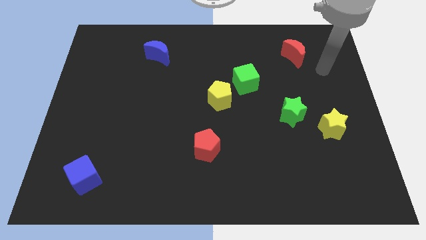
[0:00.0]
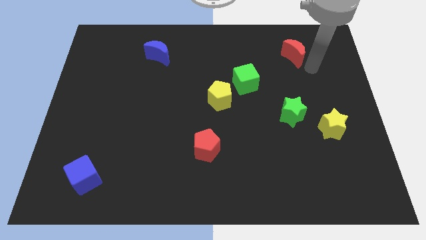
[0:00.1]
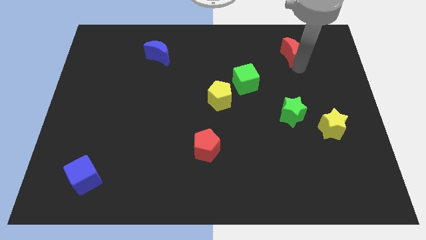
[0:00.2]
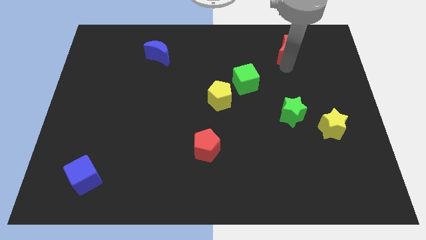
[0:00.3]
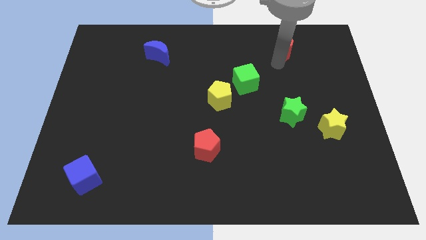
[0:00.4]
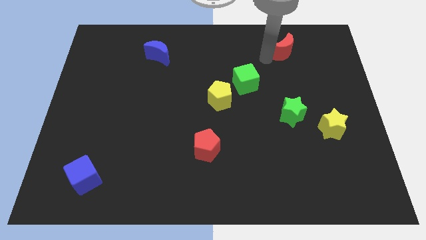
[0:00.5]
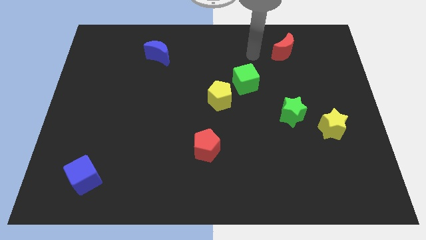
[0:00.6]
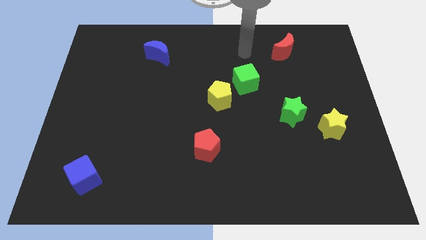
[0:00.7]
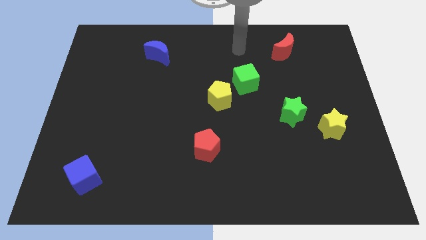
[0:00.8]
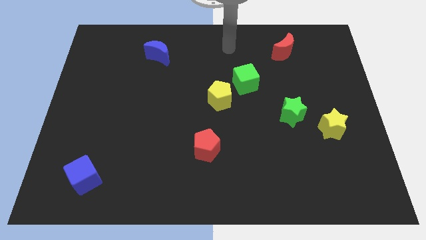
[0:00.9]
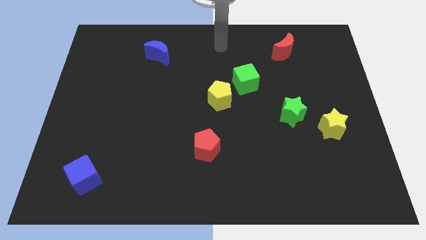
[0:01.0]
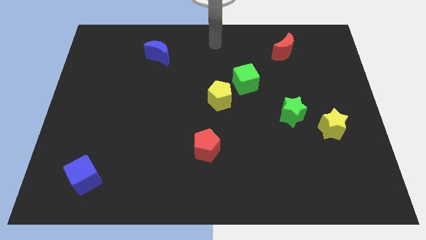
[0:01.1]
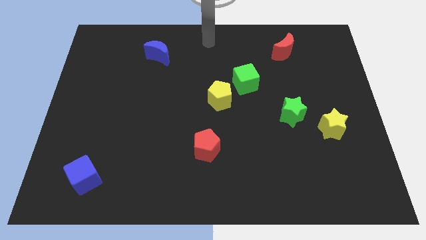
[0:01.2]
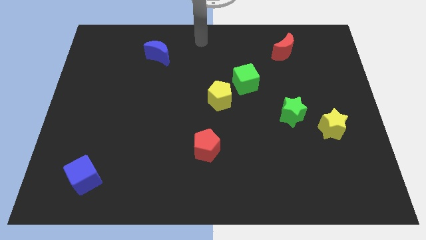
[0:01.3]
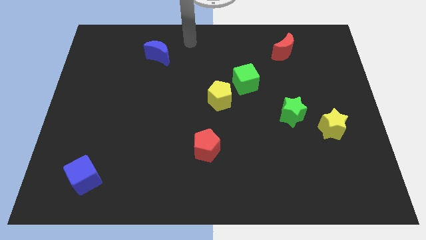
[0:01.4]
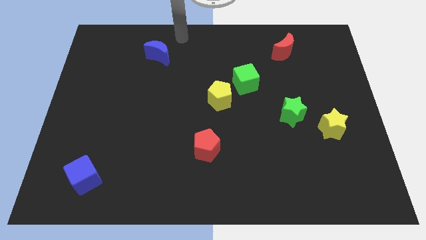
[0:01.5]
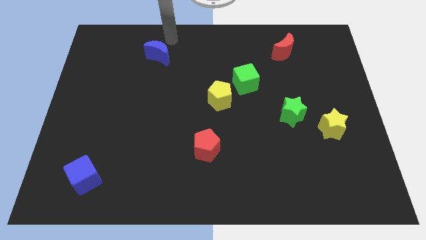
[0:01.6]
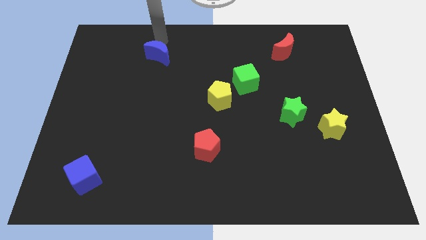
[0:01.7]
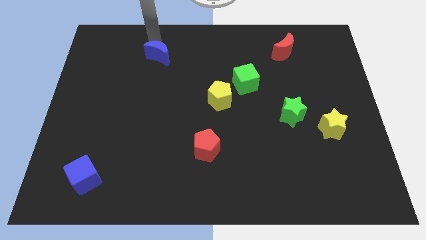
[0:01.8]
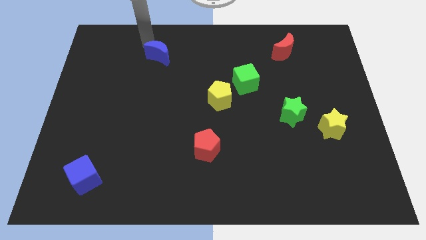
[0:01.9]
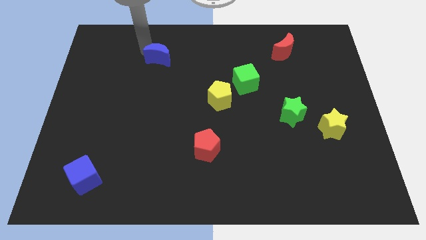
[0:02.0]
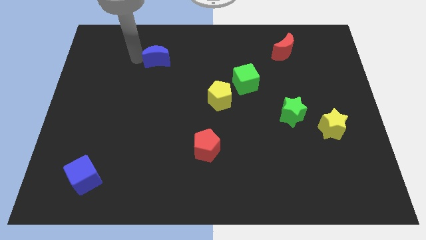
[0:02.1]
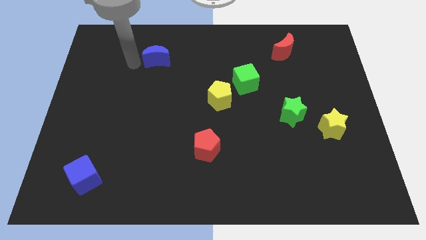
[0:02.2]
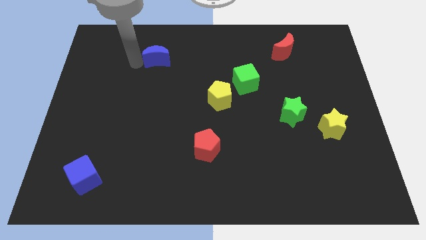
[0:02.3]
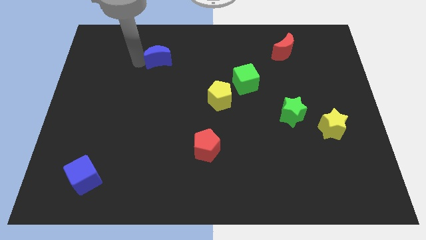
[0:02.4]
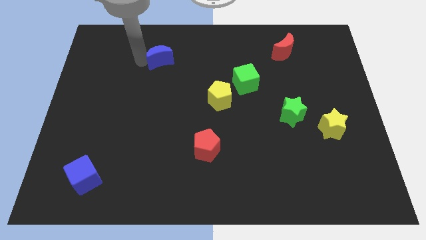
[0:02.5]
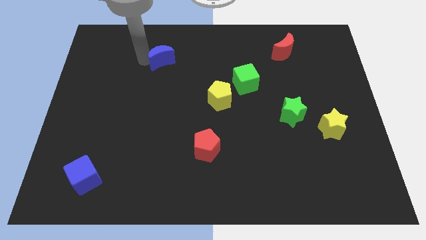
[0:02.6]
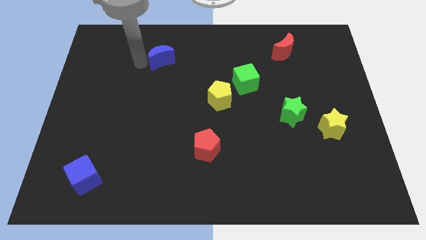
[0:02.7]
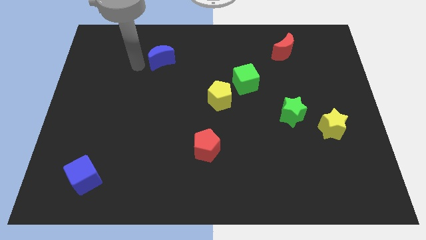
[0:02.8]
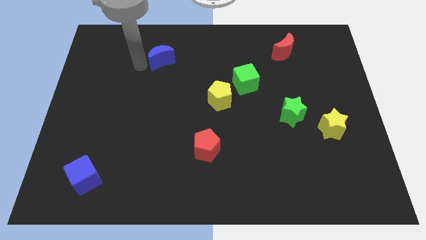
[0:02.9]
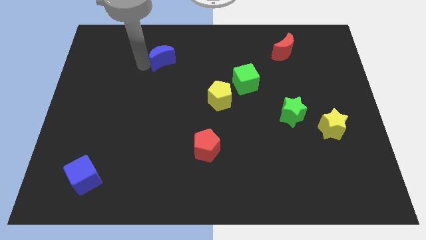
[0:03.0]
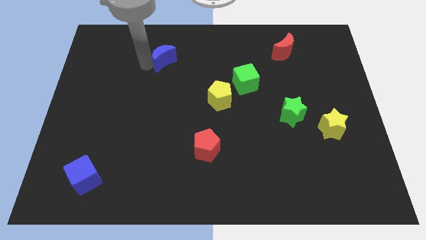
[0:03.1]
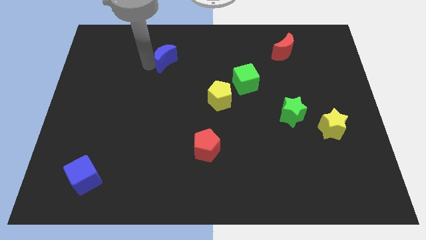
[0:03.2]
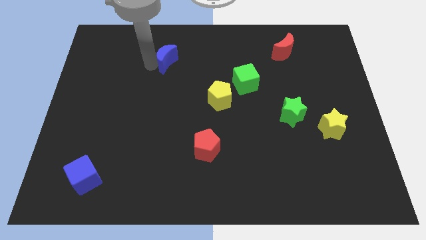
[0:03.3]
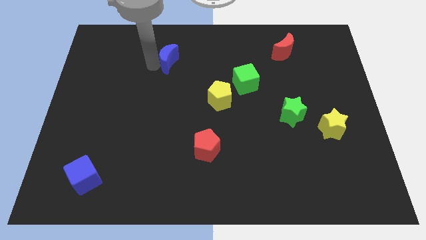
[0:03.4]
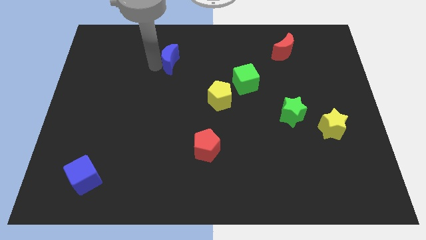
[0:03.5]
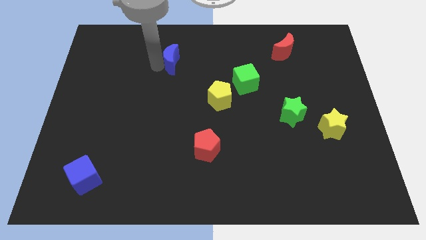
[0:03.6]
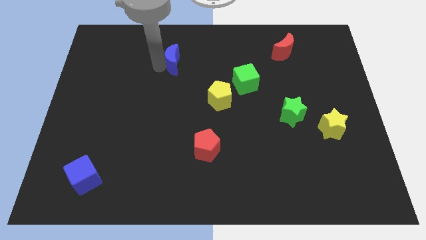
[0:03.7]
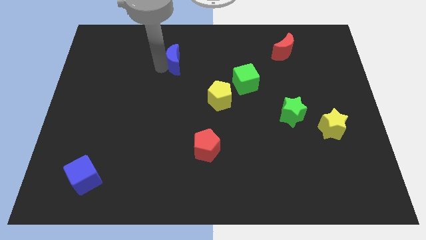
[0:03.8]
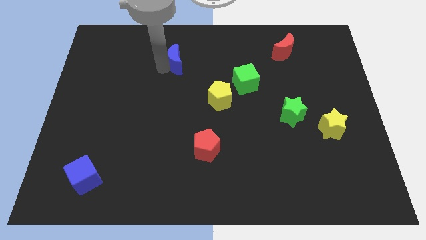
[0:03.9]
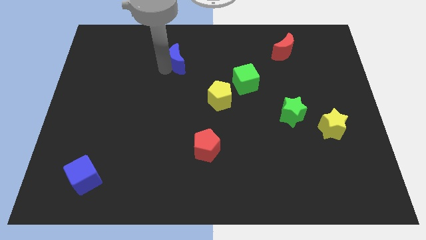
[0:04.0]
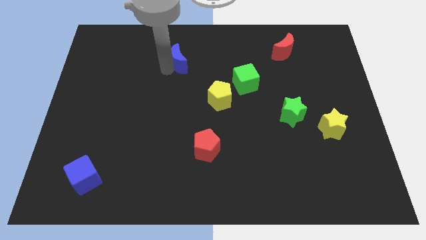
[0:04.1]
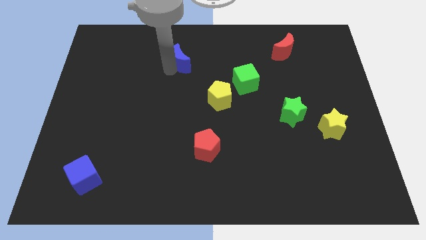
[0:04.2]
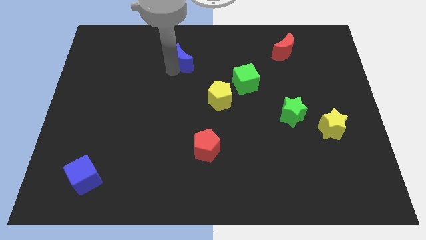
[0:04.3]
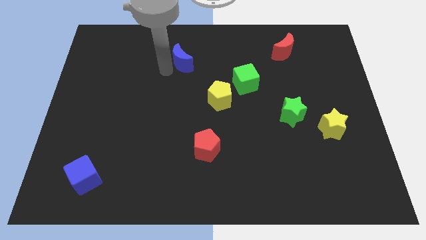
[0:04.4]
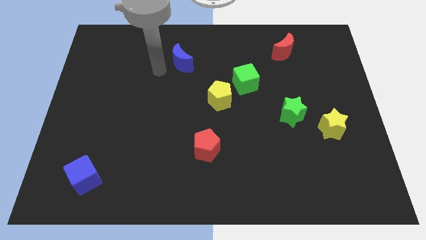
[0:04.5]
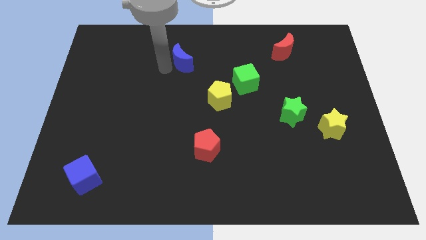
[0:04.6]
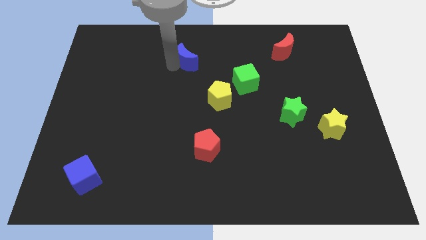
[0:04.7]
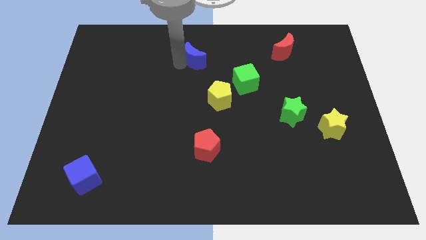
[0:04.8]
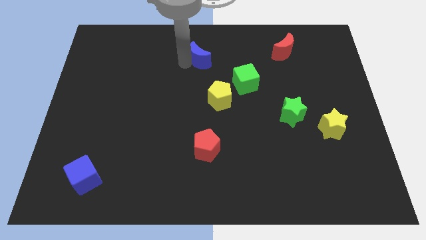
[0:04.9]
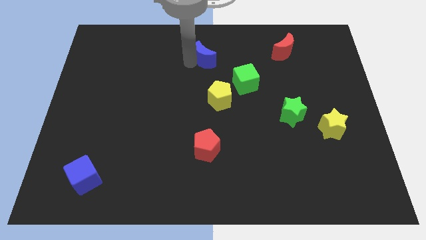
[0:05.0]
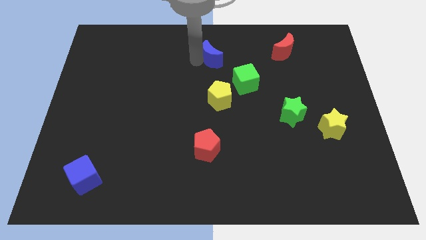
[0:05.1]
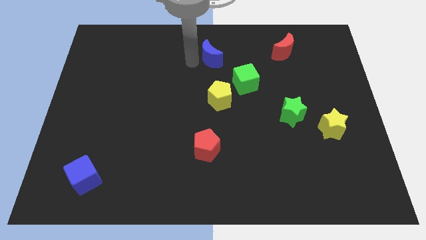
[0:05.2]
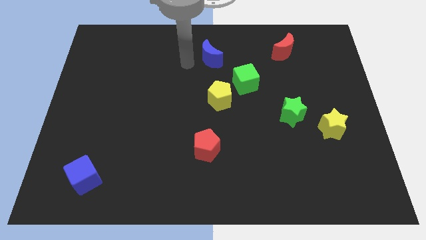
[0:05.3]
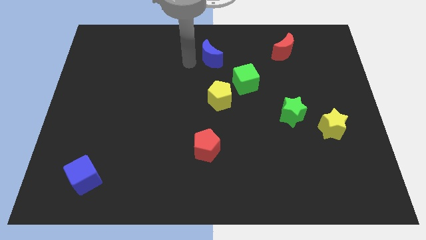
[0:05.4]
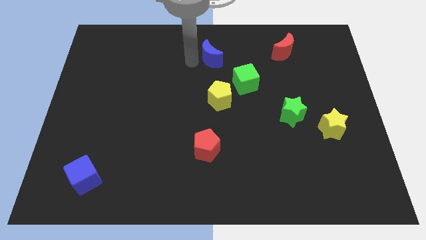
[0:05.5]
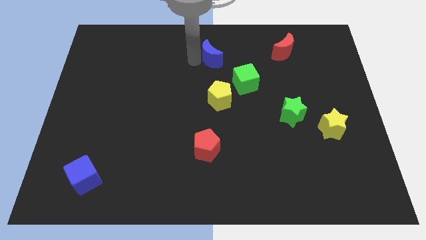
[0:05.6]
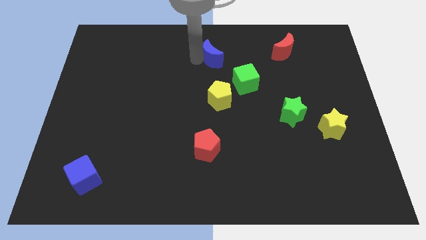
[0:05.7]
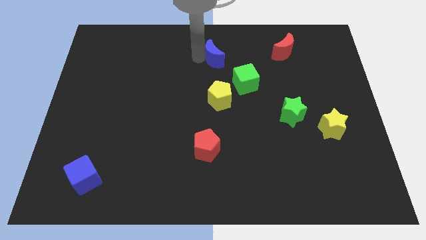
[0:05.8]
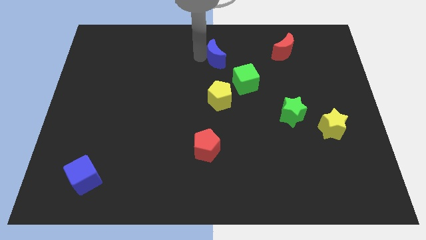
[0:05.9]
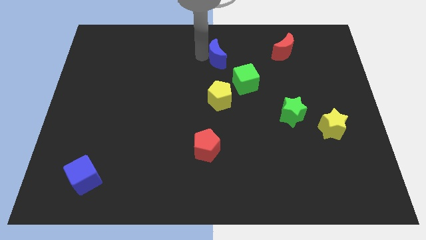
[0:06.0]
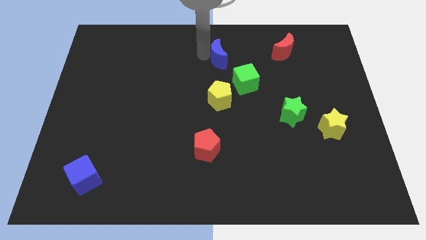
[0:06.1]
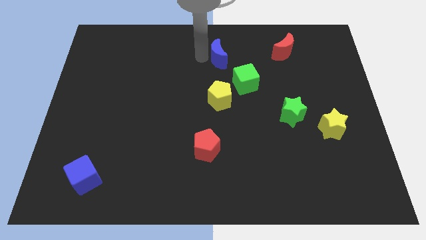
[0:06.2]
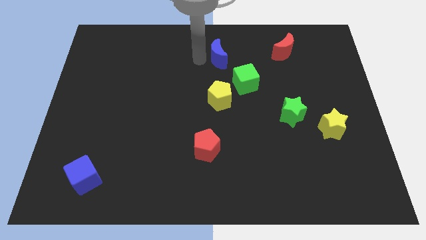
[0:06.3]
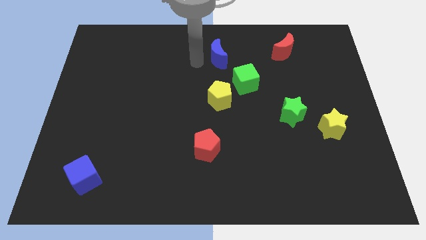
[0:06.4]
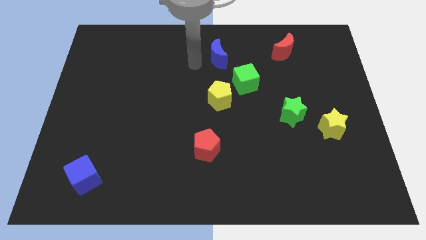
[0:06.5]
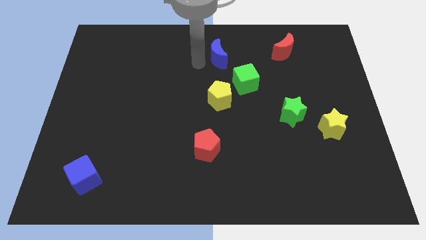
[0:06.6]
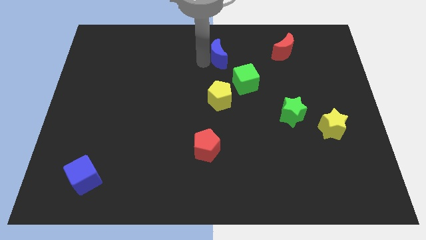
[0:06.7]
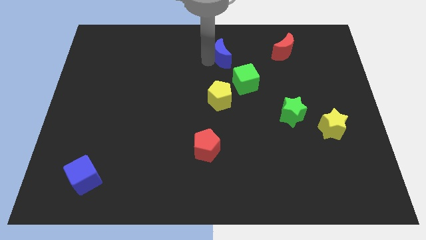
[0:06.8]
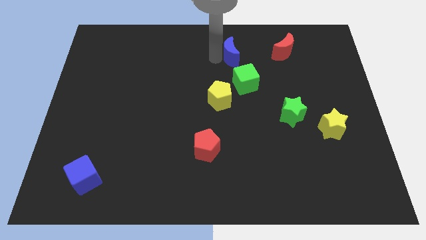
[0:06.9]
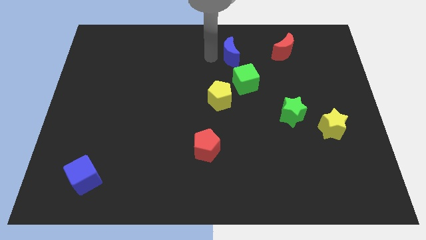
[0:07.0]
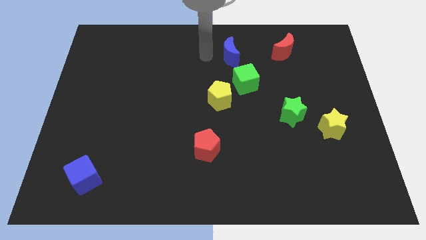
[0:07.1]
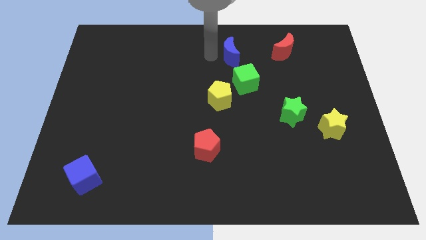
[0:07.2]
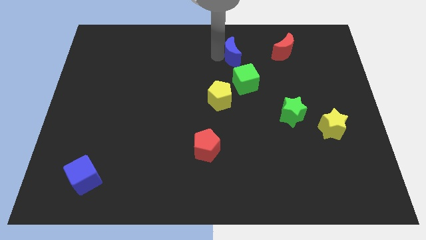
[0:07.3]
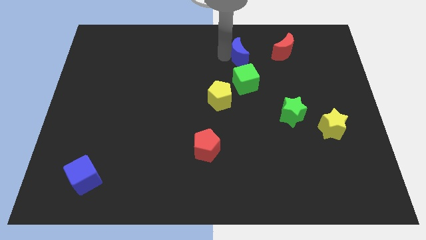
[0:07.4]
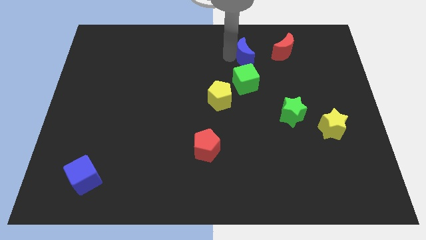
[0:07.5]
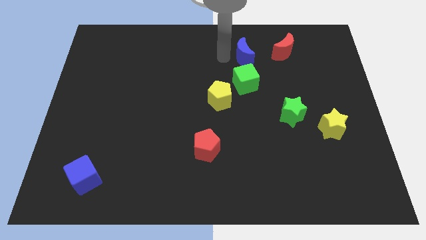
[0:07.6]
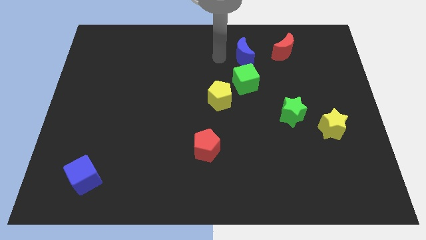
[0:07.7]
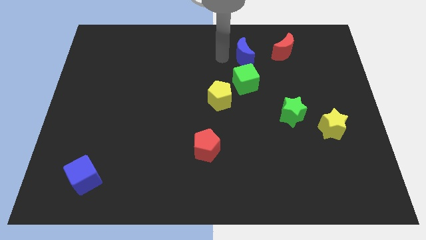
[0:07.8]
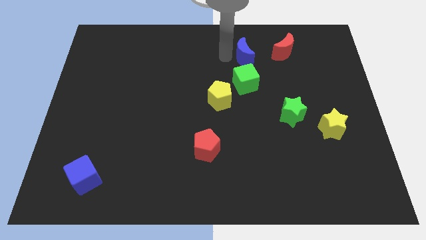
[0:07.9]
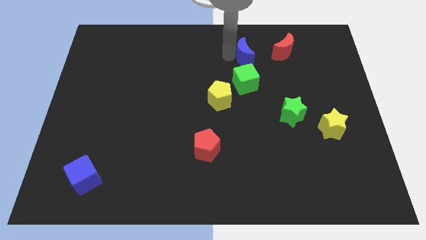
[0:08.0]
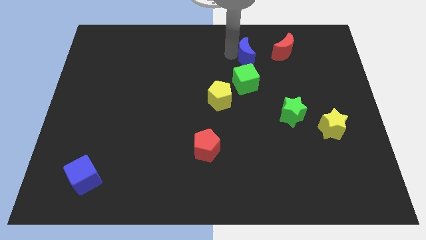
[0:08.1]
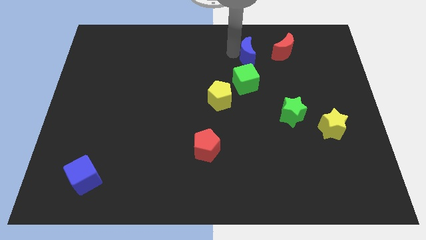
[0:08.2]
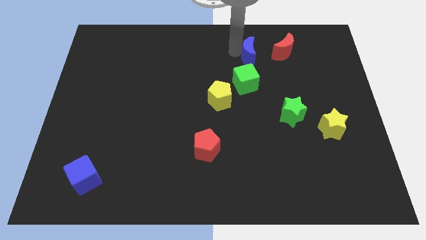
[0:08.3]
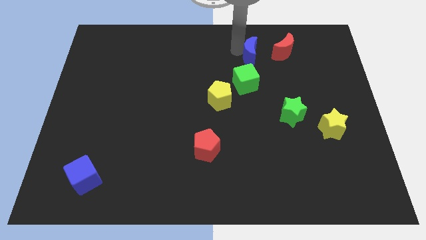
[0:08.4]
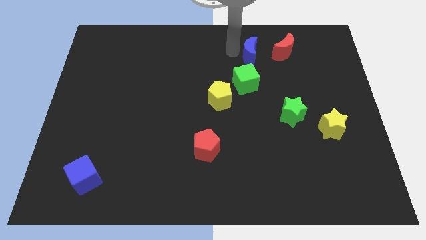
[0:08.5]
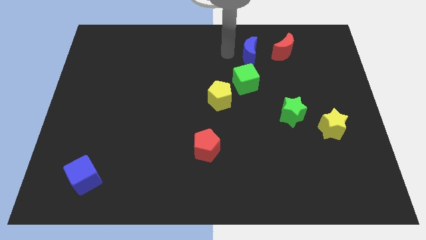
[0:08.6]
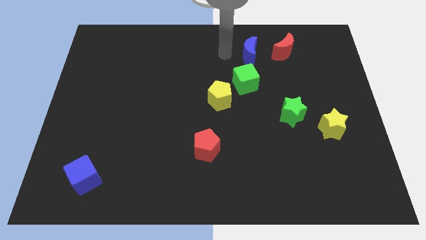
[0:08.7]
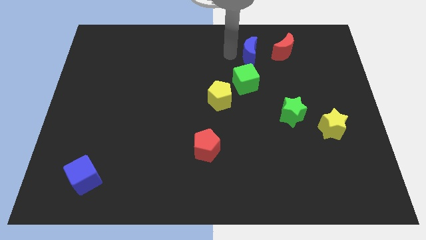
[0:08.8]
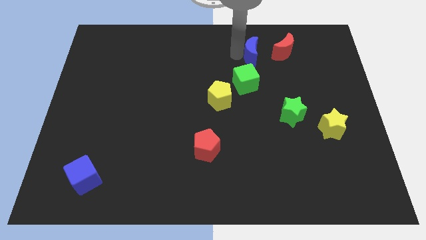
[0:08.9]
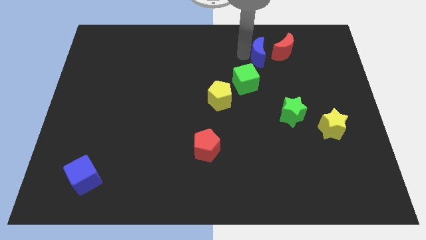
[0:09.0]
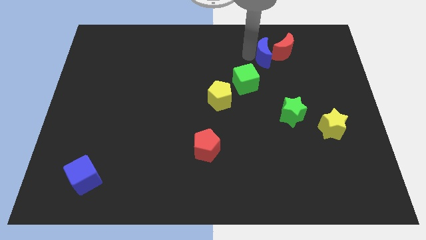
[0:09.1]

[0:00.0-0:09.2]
slide the blue moon towards the red moon
